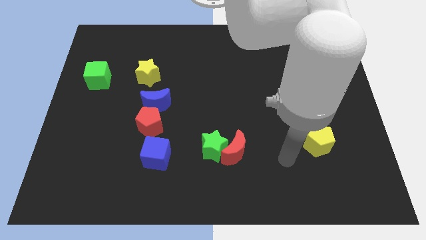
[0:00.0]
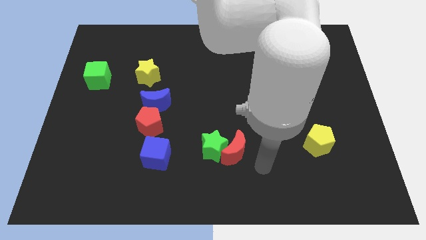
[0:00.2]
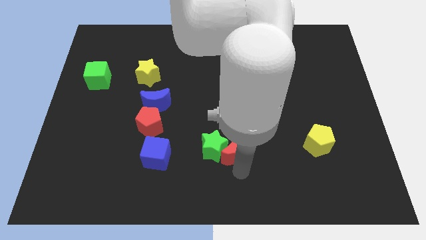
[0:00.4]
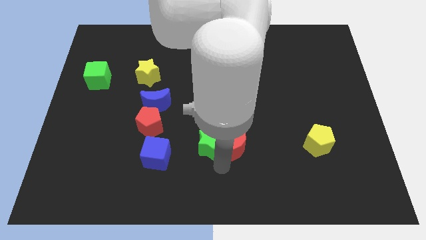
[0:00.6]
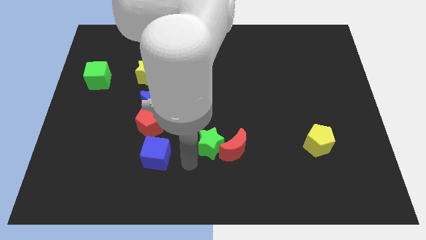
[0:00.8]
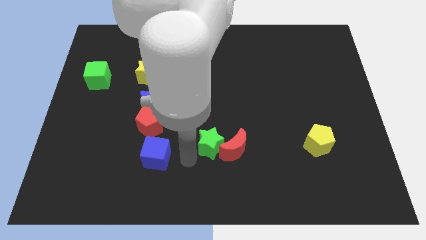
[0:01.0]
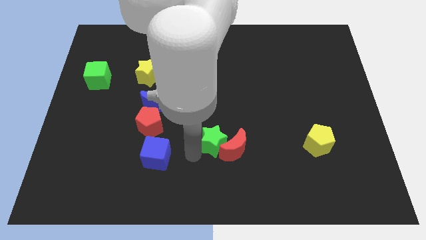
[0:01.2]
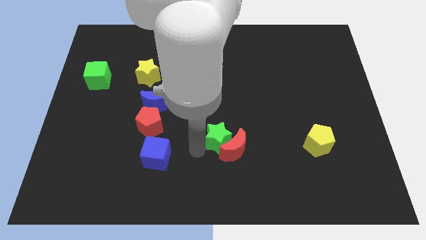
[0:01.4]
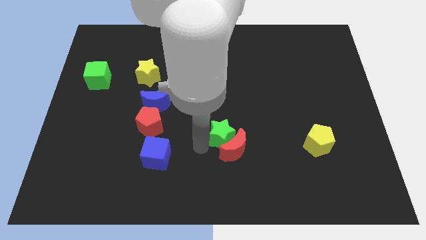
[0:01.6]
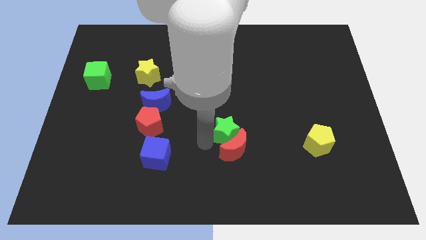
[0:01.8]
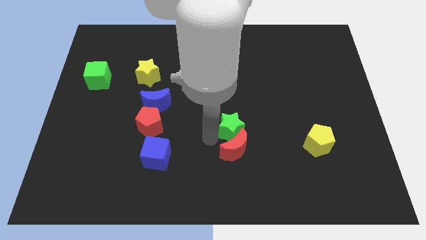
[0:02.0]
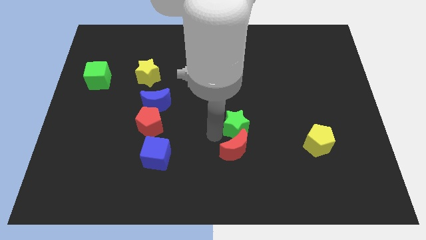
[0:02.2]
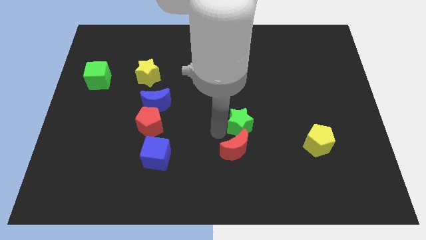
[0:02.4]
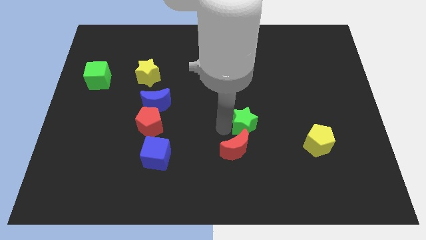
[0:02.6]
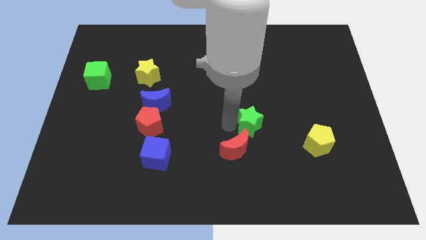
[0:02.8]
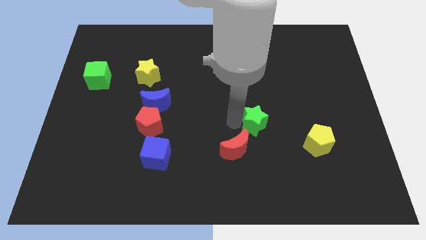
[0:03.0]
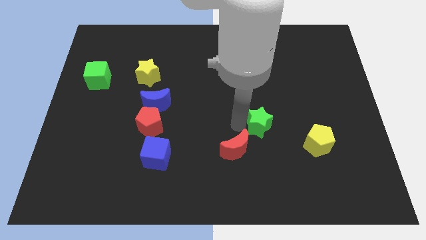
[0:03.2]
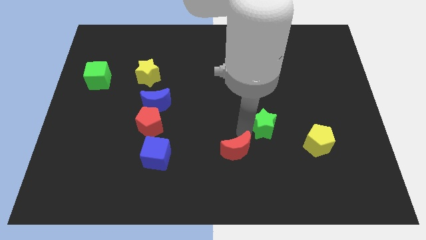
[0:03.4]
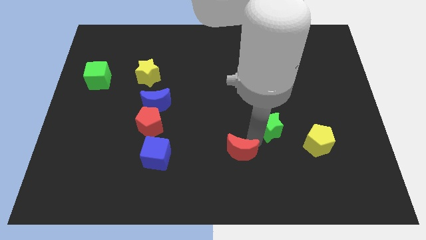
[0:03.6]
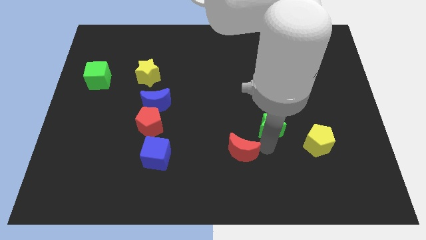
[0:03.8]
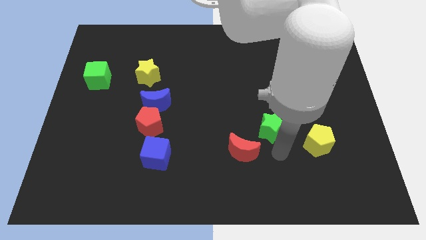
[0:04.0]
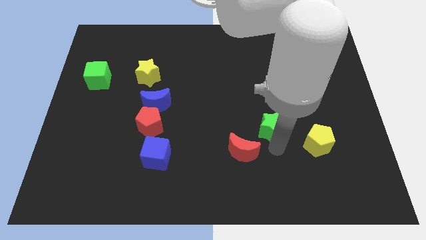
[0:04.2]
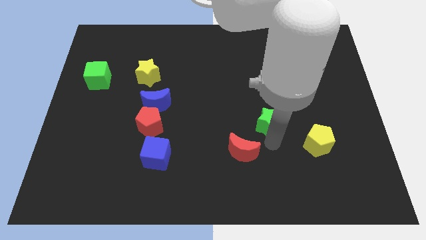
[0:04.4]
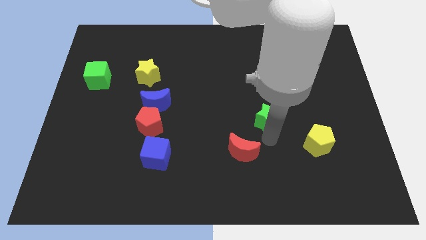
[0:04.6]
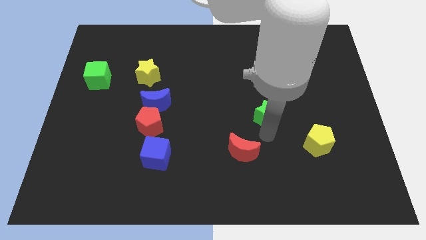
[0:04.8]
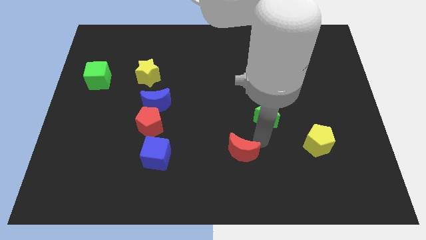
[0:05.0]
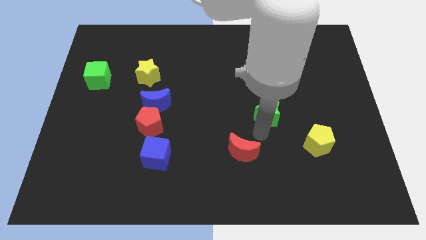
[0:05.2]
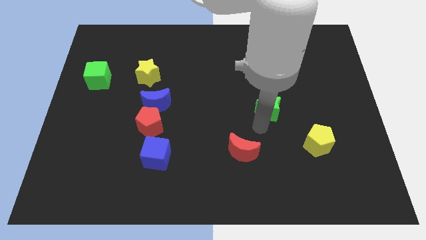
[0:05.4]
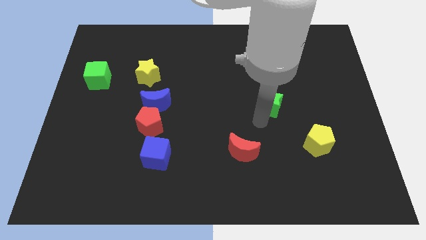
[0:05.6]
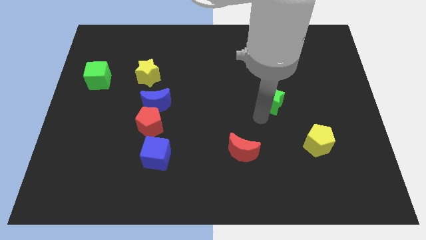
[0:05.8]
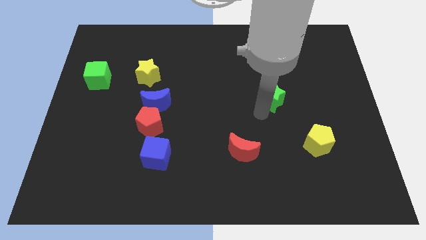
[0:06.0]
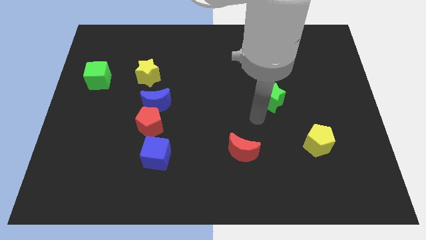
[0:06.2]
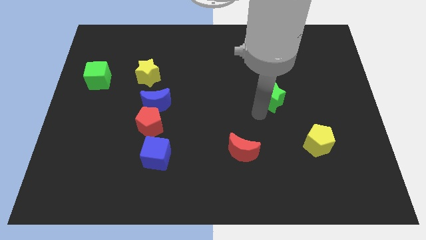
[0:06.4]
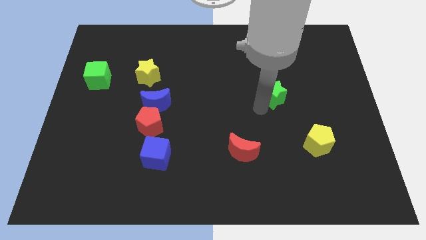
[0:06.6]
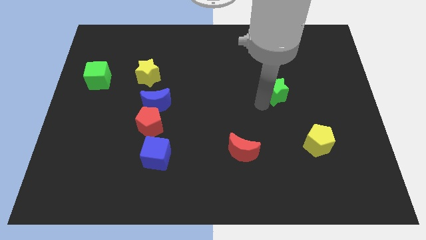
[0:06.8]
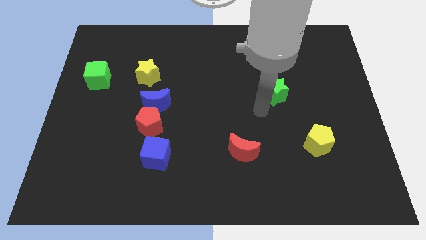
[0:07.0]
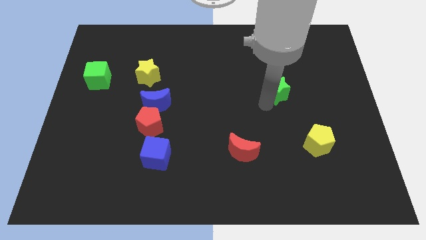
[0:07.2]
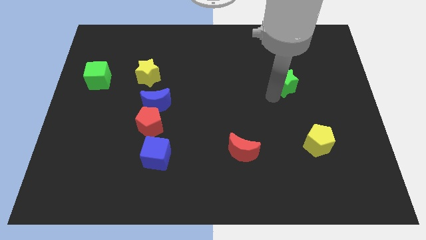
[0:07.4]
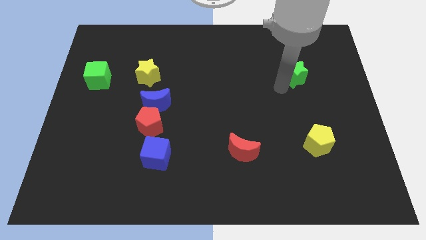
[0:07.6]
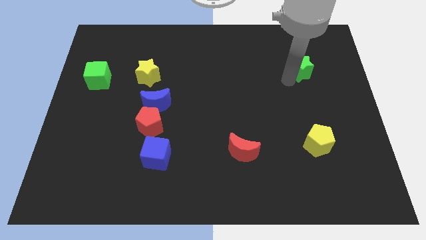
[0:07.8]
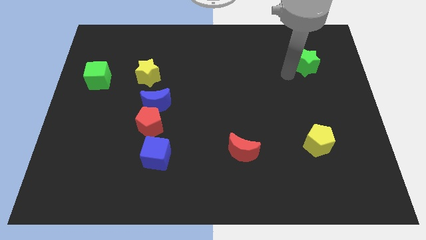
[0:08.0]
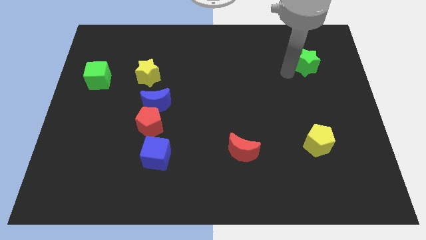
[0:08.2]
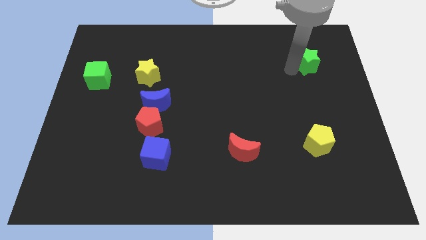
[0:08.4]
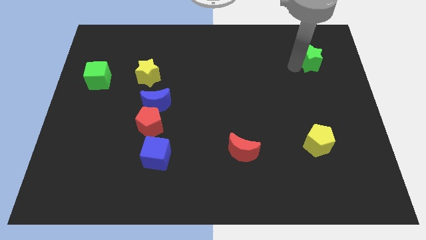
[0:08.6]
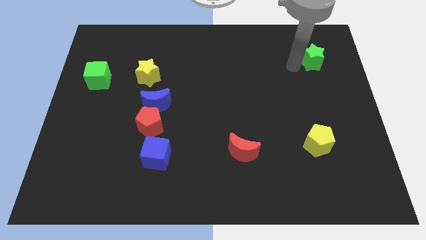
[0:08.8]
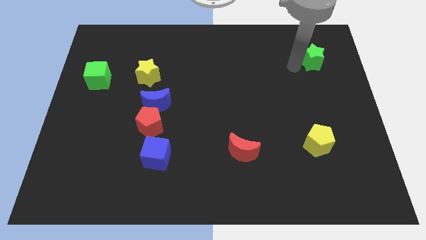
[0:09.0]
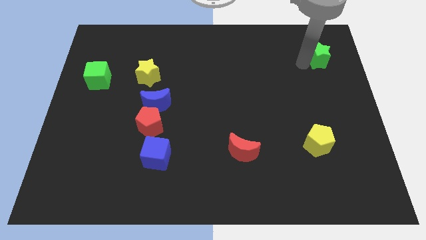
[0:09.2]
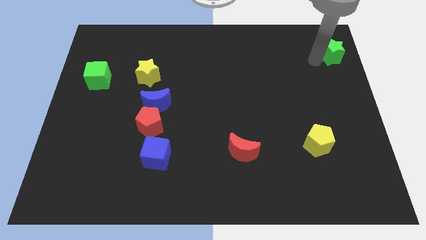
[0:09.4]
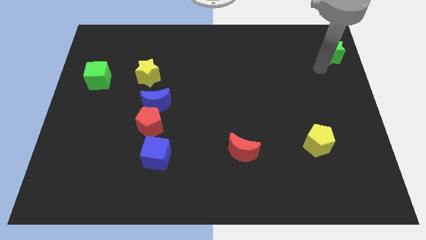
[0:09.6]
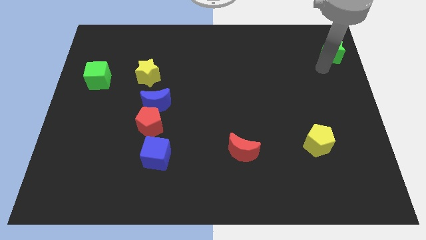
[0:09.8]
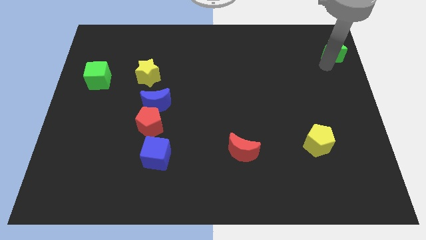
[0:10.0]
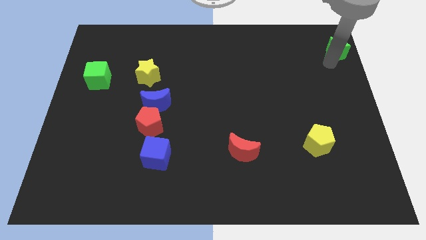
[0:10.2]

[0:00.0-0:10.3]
slide the green star to the top right corner

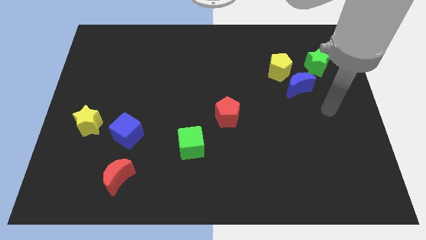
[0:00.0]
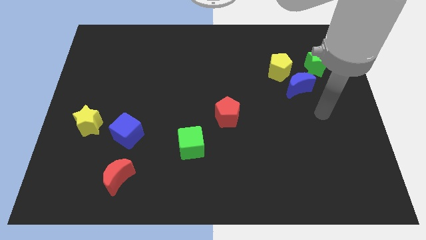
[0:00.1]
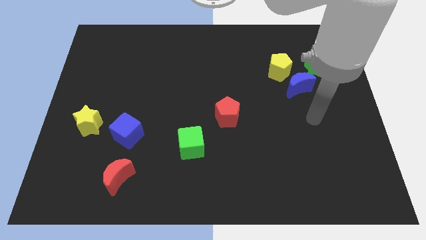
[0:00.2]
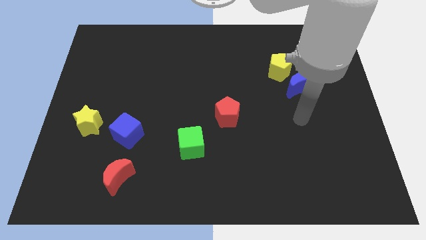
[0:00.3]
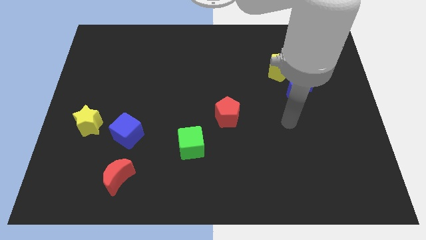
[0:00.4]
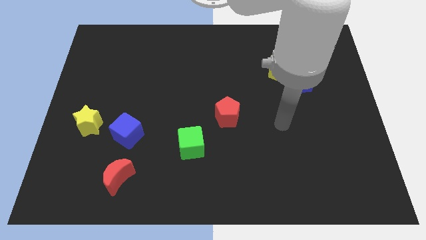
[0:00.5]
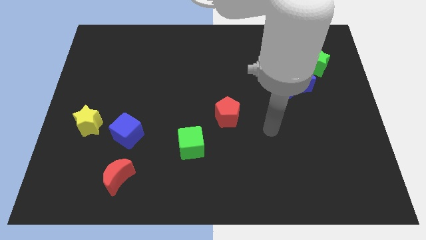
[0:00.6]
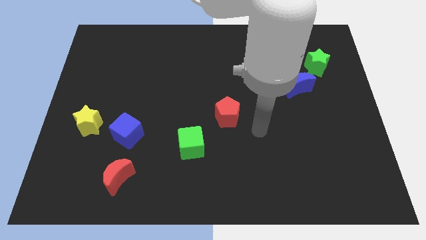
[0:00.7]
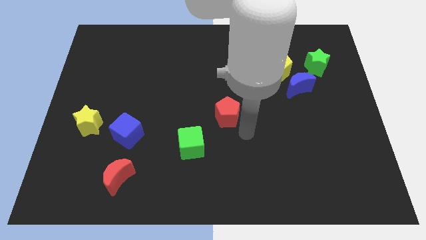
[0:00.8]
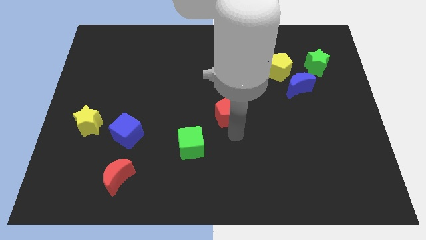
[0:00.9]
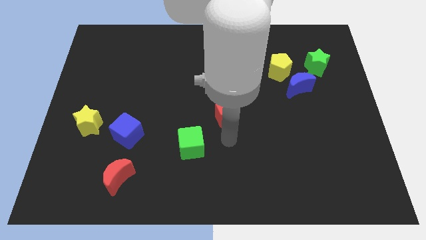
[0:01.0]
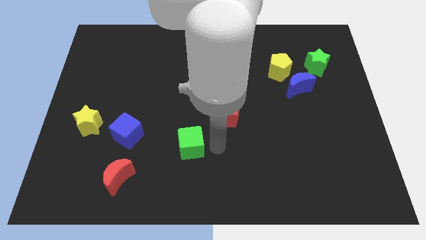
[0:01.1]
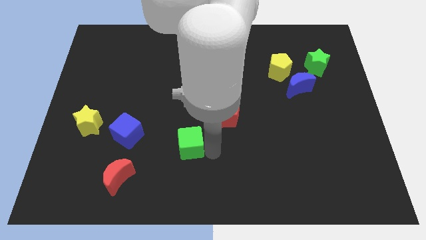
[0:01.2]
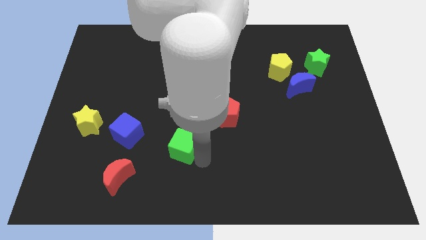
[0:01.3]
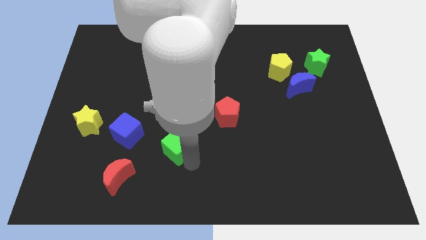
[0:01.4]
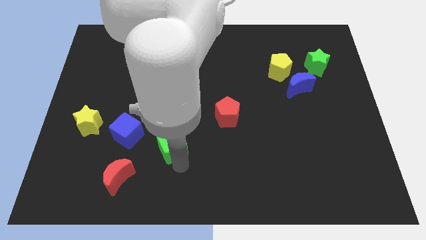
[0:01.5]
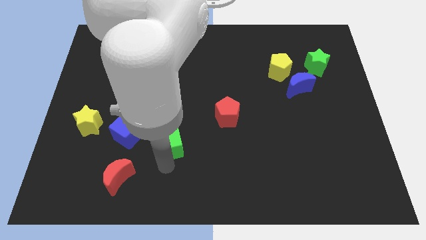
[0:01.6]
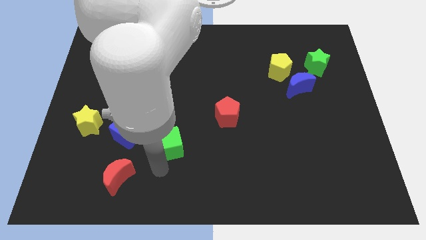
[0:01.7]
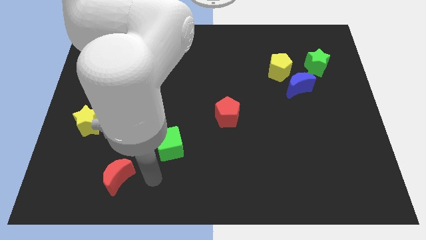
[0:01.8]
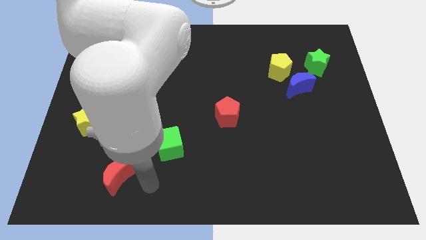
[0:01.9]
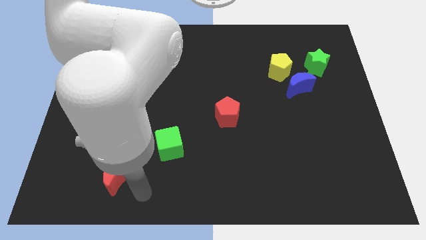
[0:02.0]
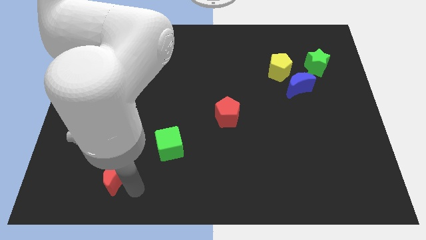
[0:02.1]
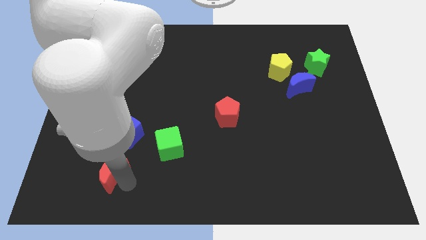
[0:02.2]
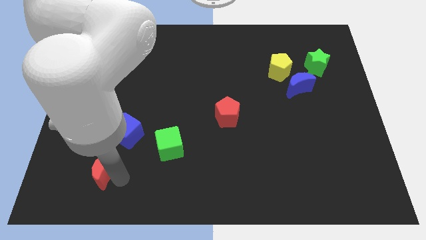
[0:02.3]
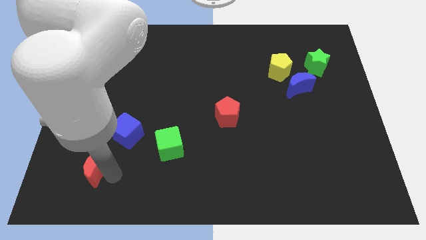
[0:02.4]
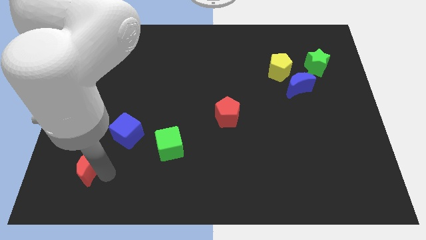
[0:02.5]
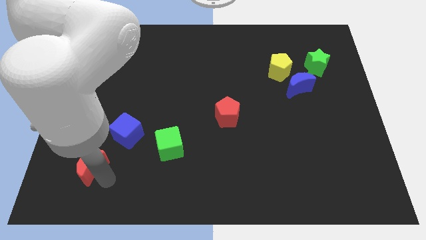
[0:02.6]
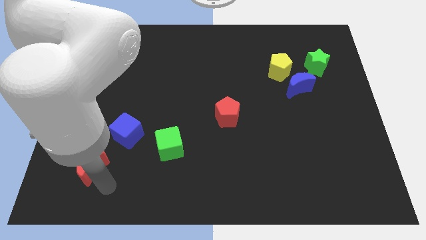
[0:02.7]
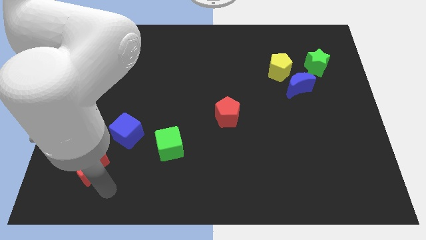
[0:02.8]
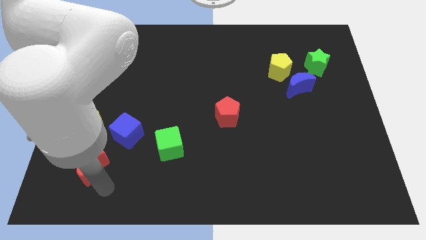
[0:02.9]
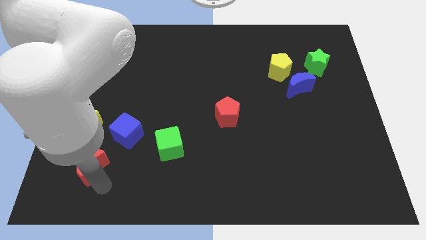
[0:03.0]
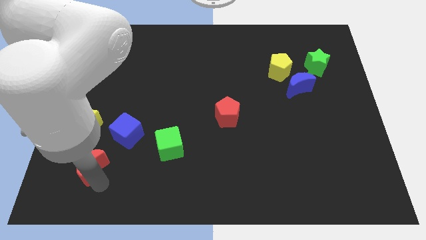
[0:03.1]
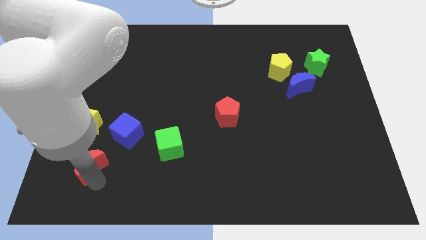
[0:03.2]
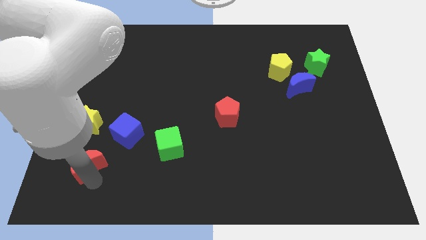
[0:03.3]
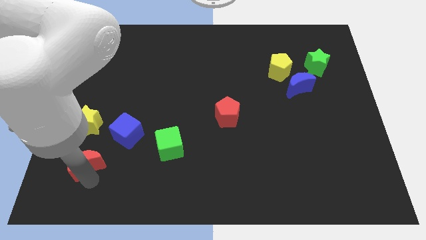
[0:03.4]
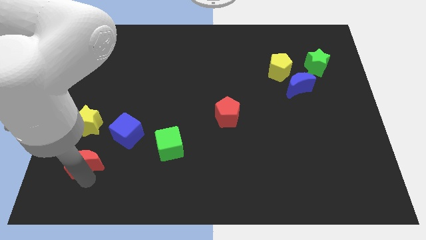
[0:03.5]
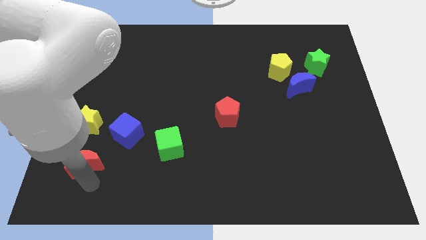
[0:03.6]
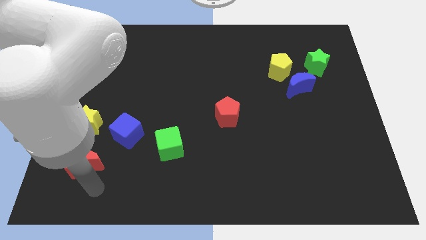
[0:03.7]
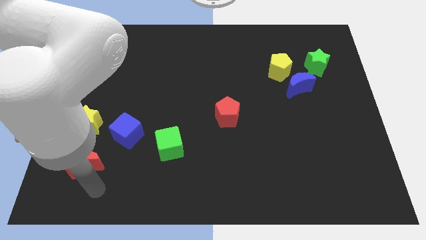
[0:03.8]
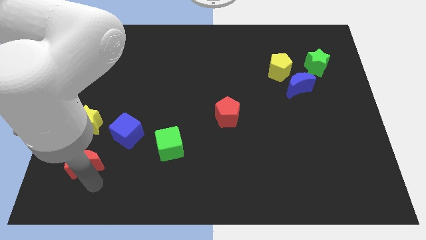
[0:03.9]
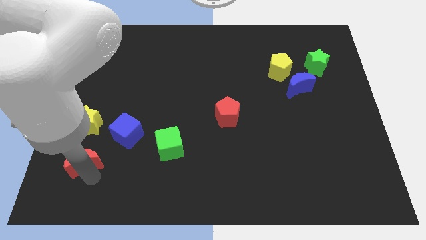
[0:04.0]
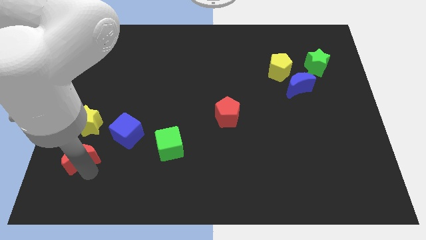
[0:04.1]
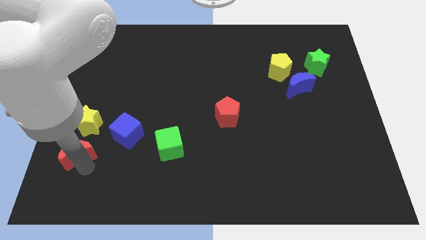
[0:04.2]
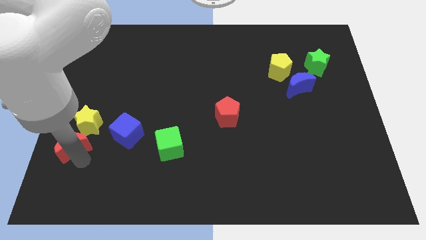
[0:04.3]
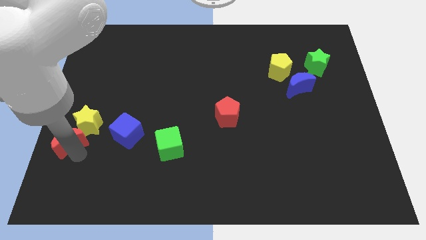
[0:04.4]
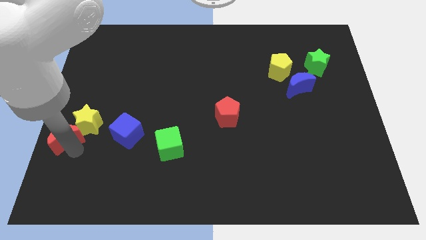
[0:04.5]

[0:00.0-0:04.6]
move the red moon to the left side
